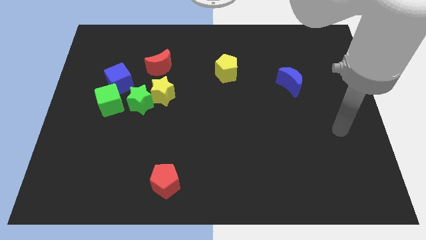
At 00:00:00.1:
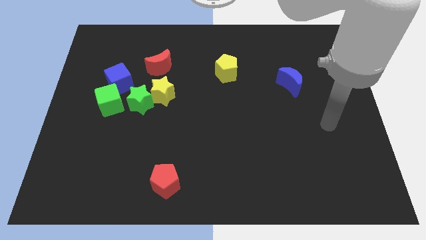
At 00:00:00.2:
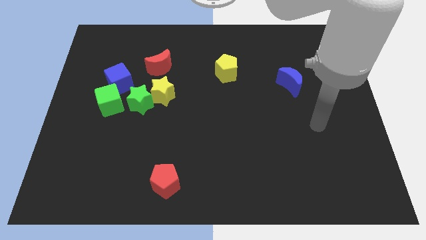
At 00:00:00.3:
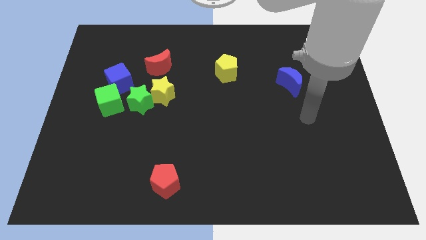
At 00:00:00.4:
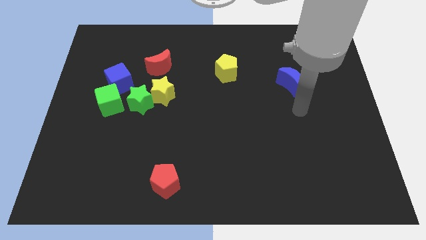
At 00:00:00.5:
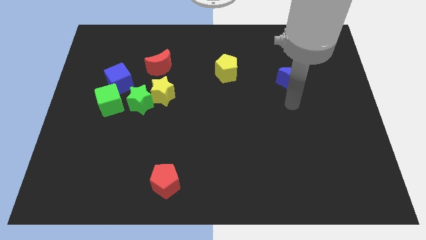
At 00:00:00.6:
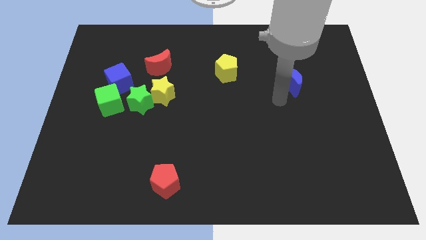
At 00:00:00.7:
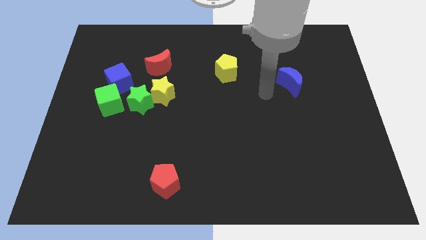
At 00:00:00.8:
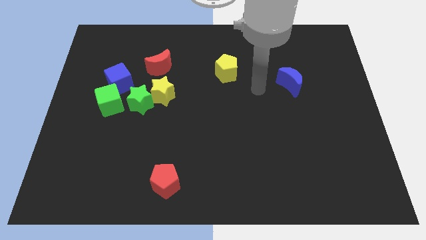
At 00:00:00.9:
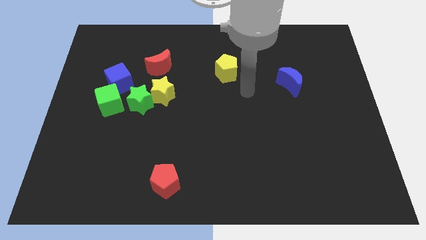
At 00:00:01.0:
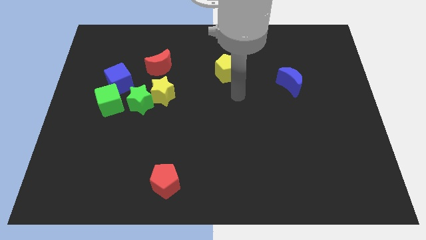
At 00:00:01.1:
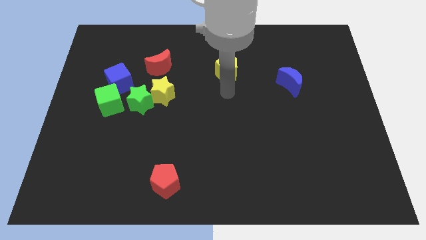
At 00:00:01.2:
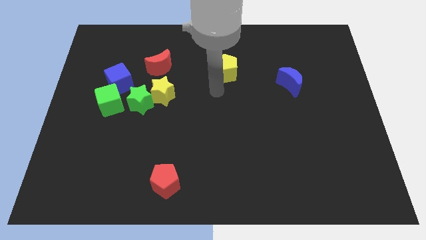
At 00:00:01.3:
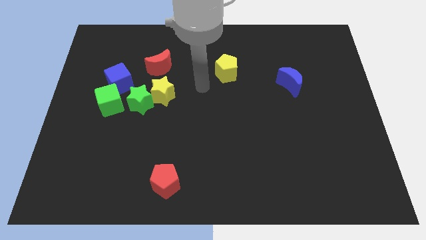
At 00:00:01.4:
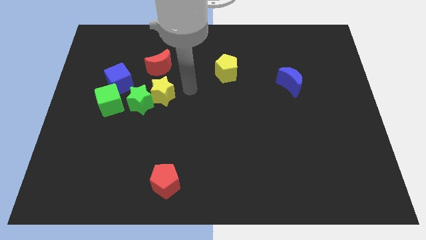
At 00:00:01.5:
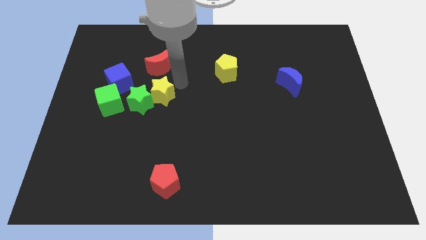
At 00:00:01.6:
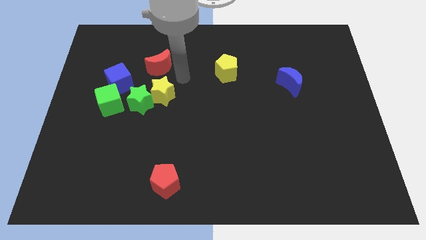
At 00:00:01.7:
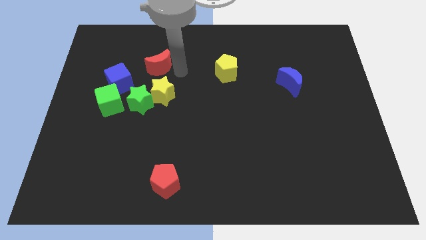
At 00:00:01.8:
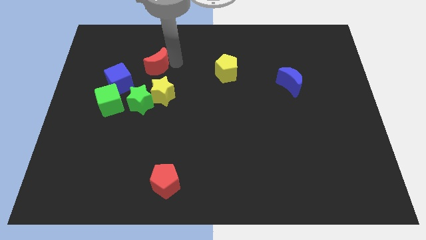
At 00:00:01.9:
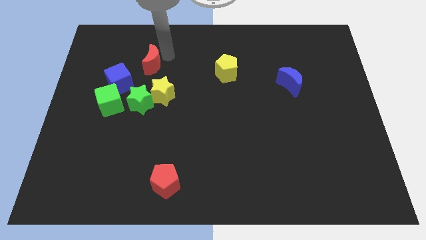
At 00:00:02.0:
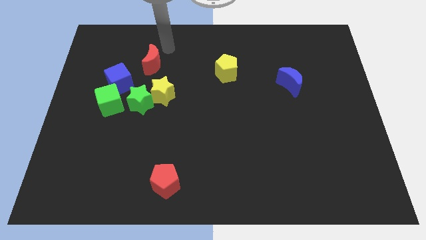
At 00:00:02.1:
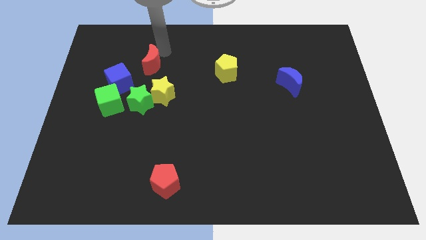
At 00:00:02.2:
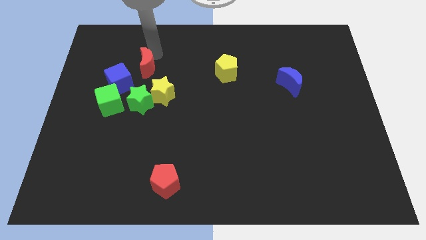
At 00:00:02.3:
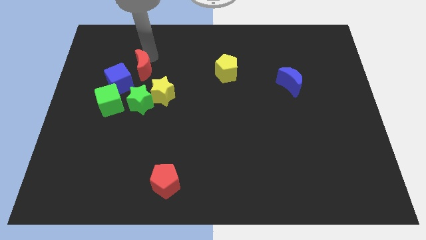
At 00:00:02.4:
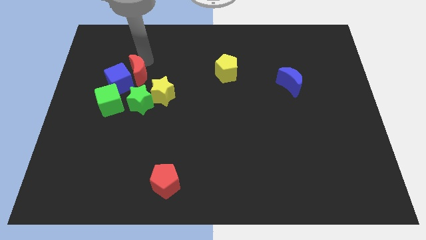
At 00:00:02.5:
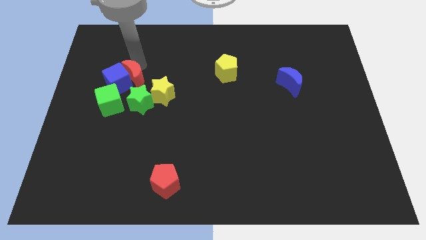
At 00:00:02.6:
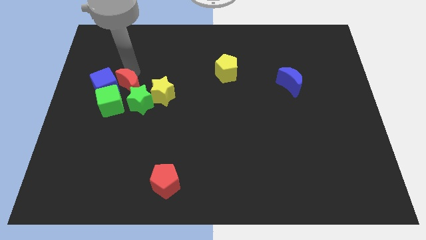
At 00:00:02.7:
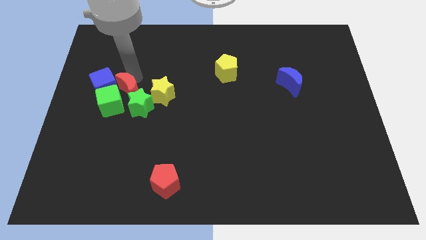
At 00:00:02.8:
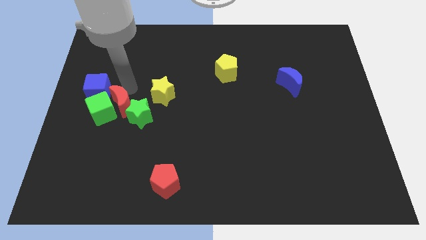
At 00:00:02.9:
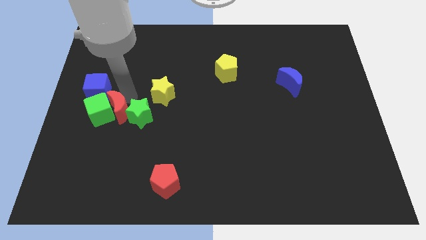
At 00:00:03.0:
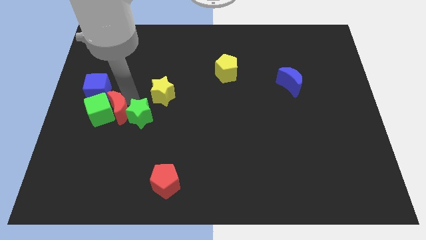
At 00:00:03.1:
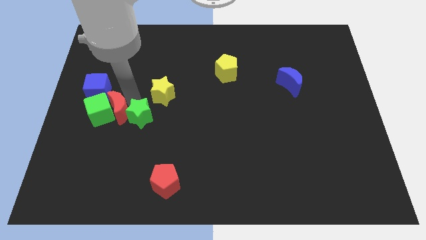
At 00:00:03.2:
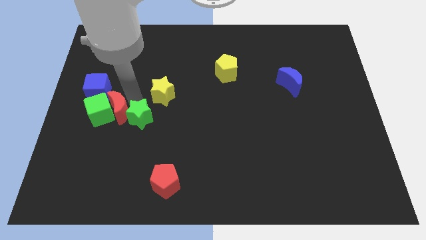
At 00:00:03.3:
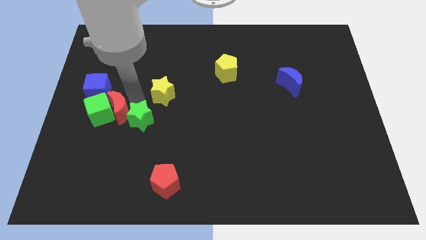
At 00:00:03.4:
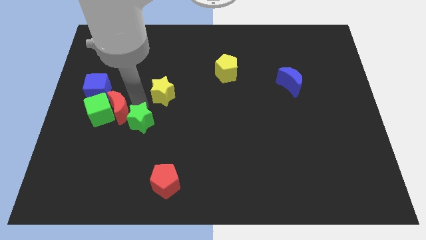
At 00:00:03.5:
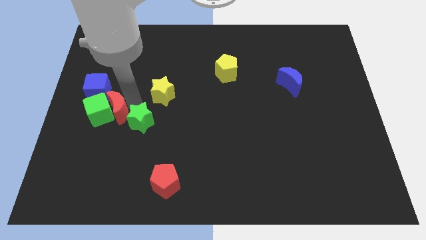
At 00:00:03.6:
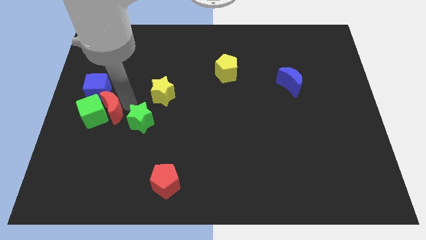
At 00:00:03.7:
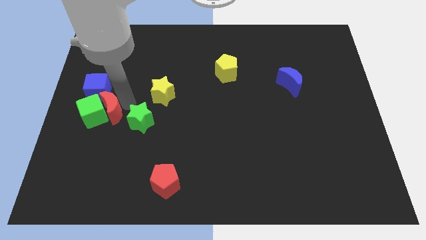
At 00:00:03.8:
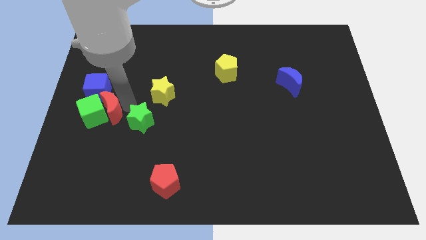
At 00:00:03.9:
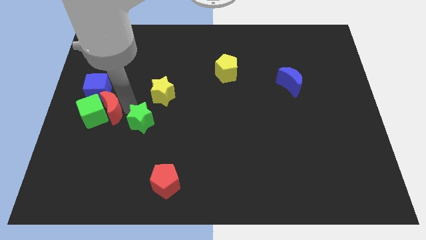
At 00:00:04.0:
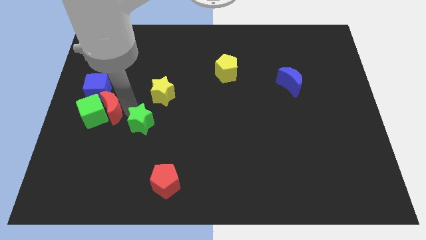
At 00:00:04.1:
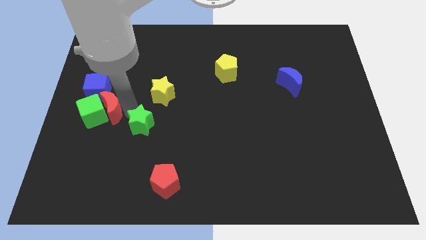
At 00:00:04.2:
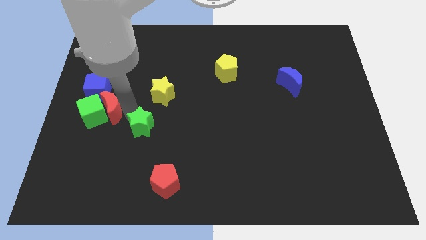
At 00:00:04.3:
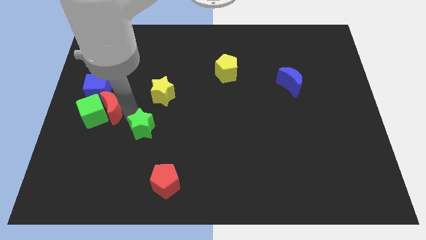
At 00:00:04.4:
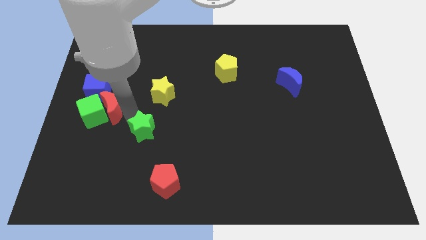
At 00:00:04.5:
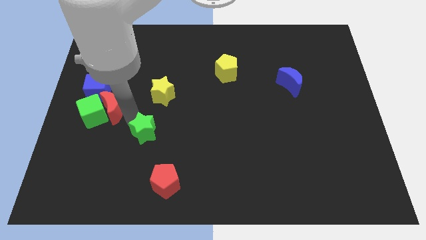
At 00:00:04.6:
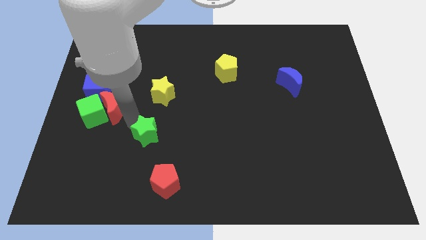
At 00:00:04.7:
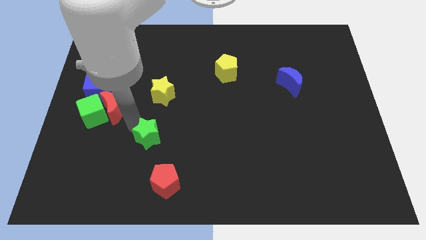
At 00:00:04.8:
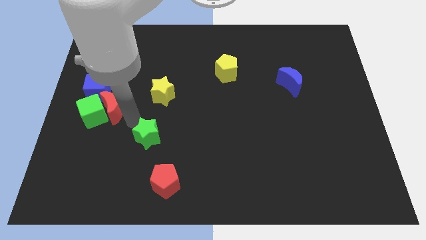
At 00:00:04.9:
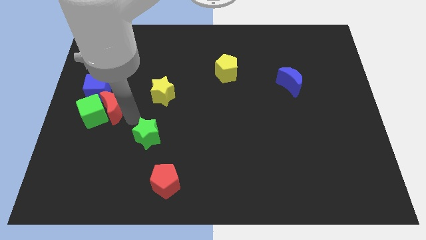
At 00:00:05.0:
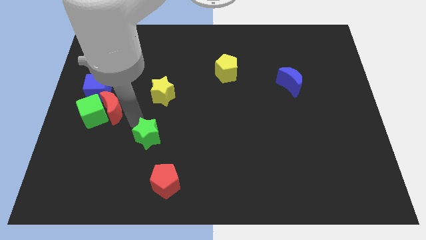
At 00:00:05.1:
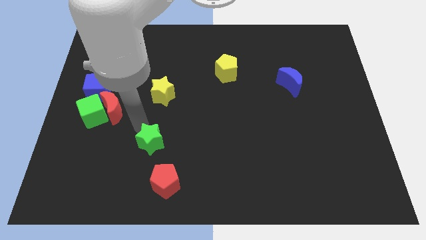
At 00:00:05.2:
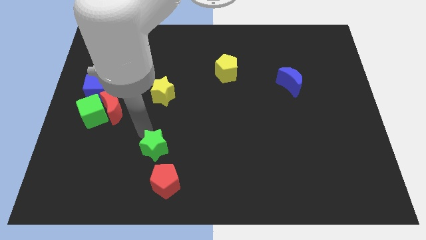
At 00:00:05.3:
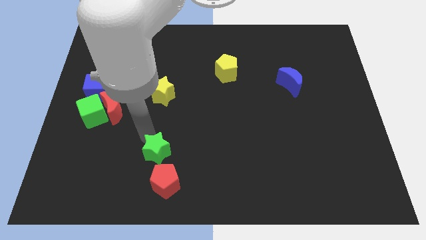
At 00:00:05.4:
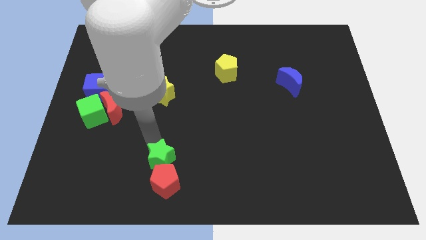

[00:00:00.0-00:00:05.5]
push the green star towards the red pentagon

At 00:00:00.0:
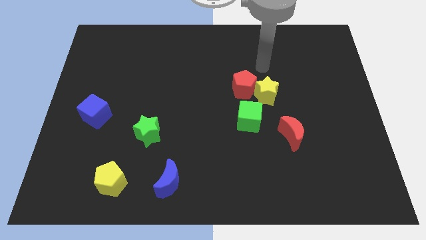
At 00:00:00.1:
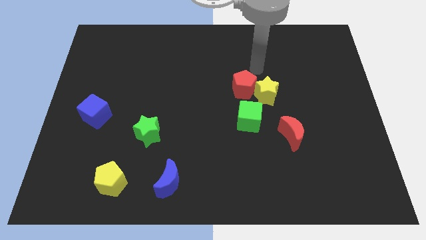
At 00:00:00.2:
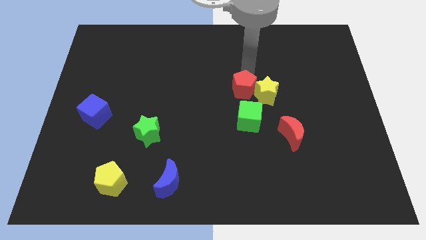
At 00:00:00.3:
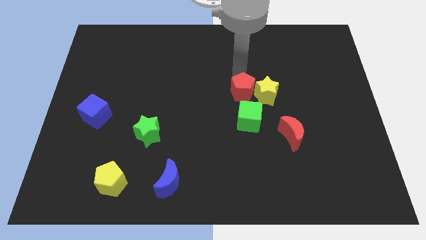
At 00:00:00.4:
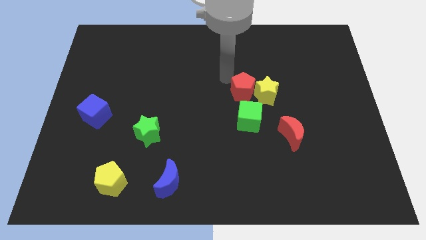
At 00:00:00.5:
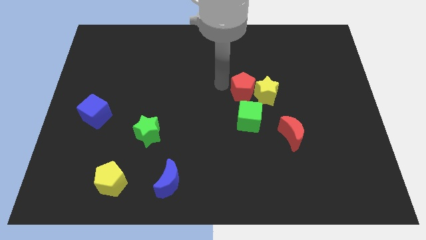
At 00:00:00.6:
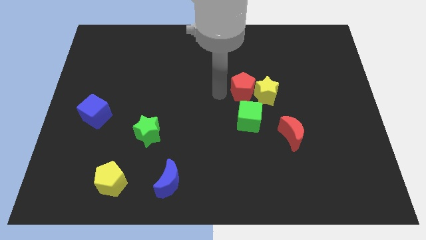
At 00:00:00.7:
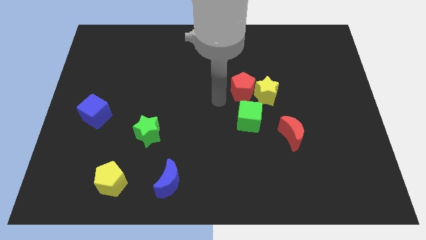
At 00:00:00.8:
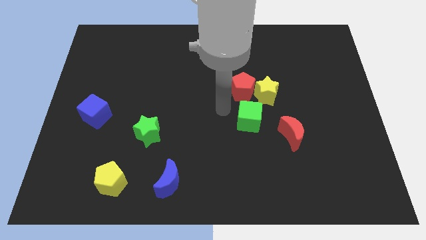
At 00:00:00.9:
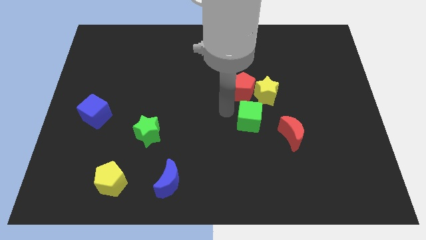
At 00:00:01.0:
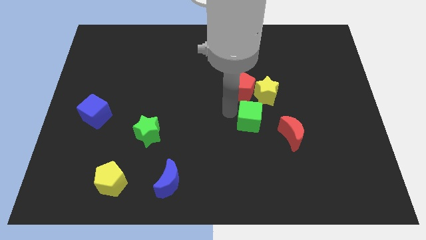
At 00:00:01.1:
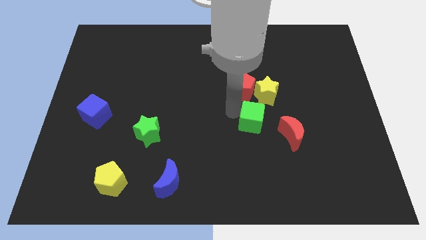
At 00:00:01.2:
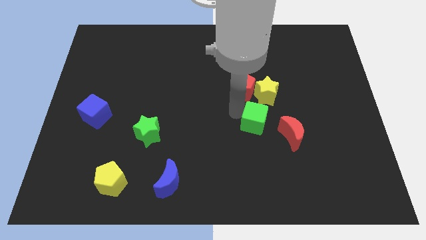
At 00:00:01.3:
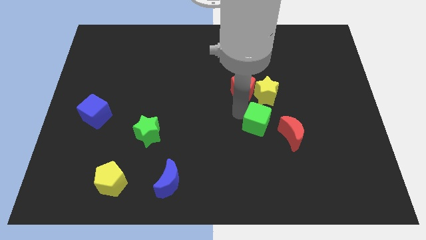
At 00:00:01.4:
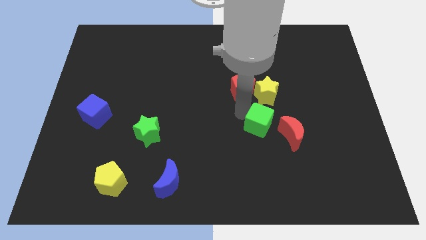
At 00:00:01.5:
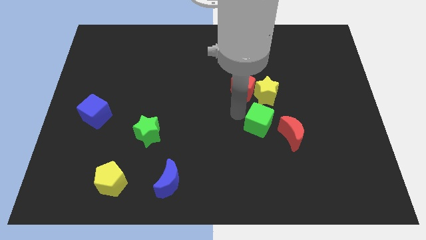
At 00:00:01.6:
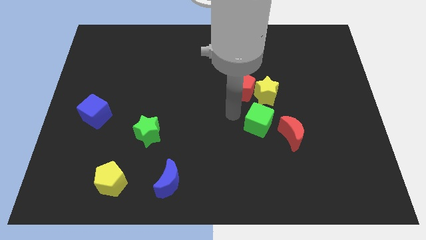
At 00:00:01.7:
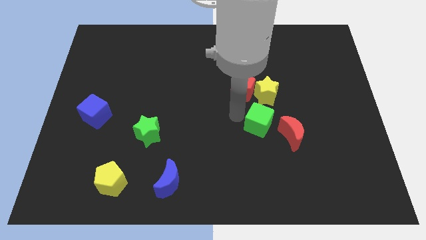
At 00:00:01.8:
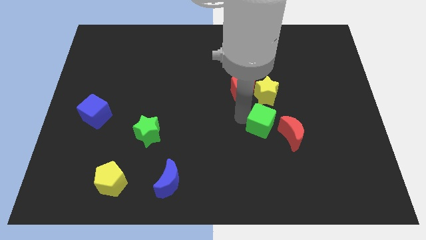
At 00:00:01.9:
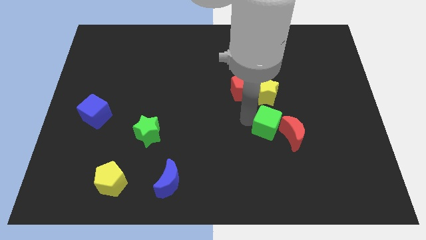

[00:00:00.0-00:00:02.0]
push the green cube towards the red moon

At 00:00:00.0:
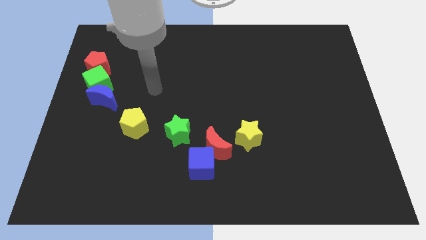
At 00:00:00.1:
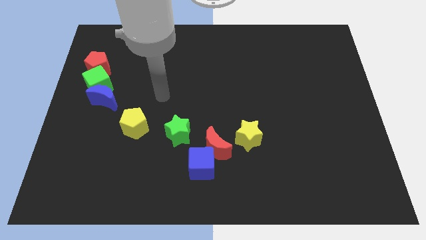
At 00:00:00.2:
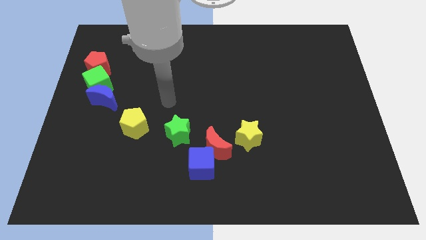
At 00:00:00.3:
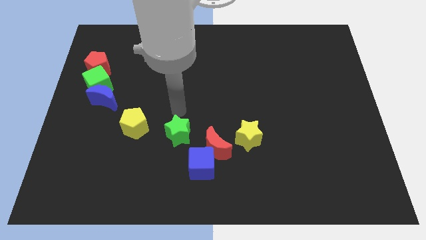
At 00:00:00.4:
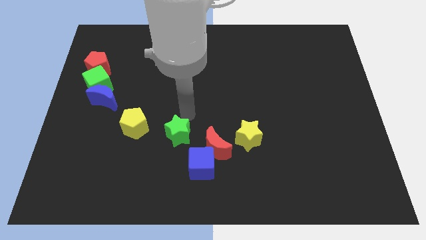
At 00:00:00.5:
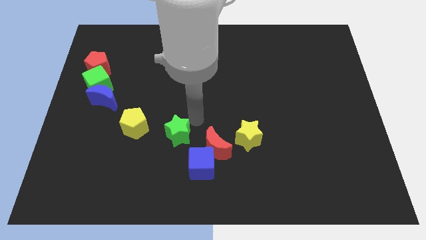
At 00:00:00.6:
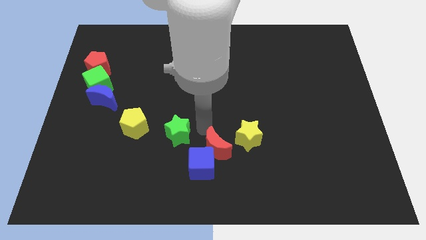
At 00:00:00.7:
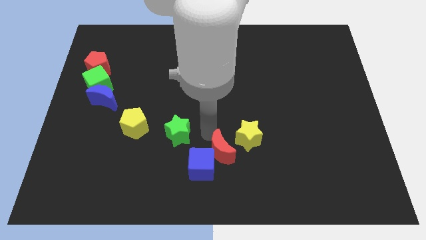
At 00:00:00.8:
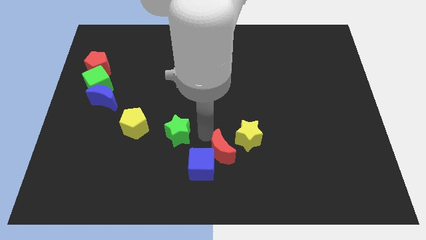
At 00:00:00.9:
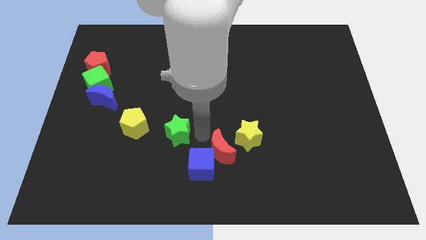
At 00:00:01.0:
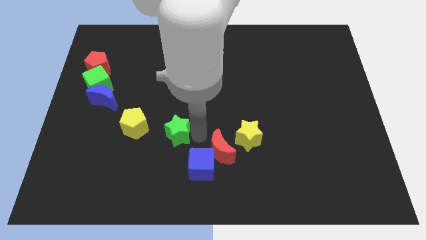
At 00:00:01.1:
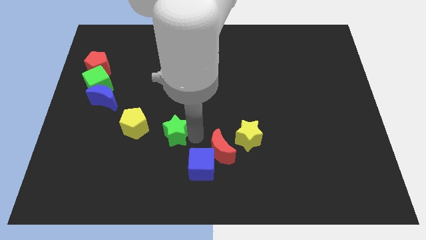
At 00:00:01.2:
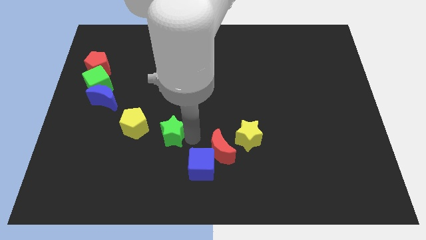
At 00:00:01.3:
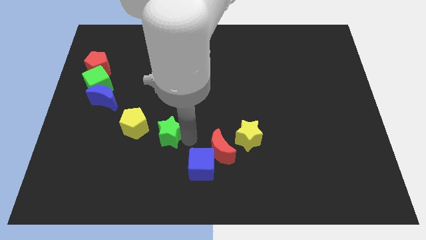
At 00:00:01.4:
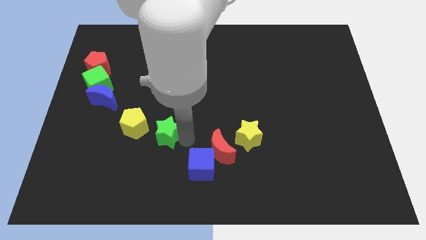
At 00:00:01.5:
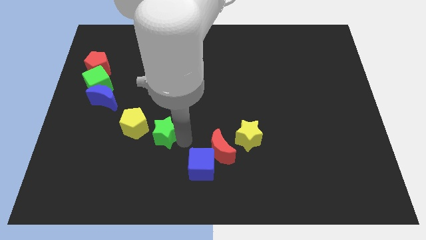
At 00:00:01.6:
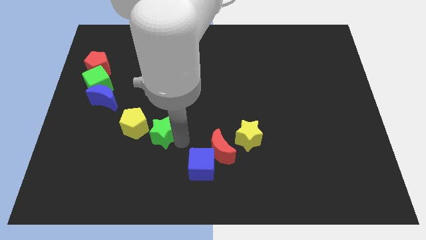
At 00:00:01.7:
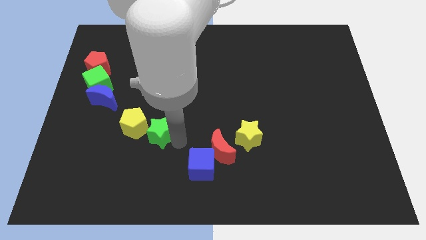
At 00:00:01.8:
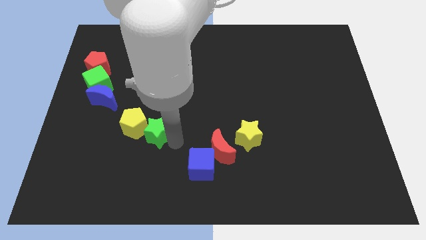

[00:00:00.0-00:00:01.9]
move the green star next to the yellow pentagon
